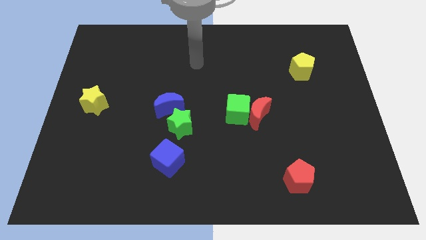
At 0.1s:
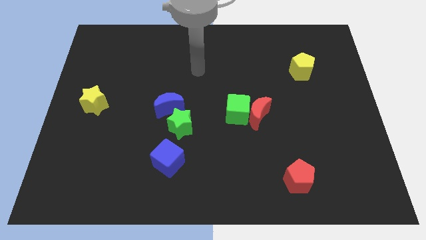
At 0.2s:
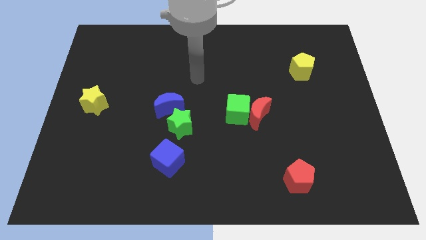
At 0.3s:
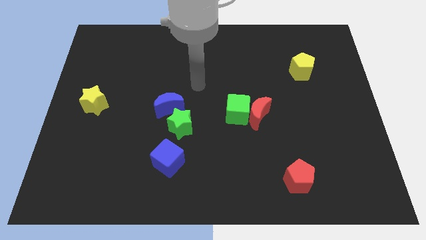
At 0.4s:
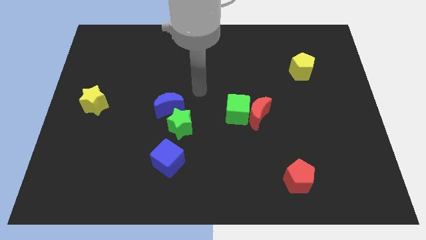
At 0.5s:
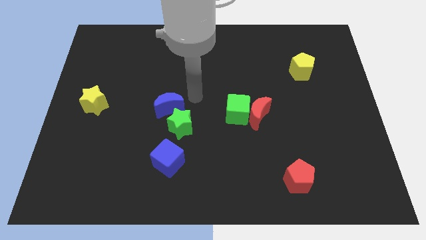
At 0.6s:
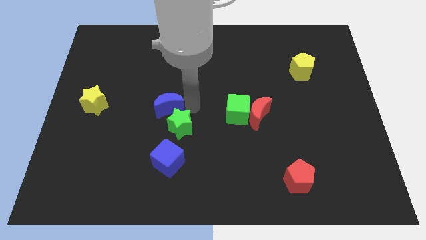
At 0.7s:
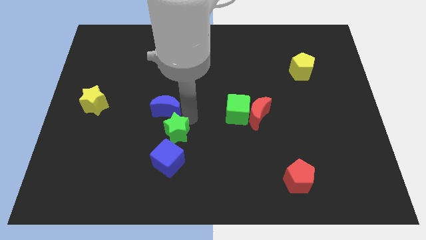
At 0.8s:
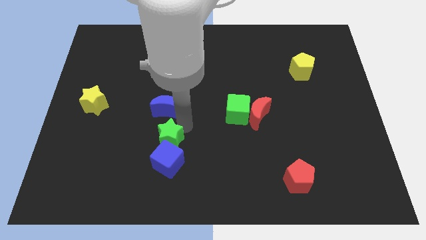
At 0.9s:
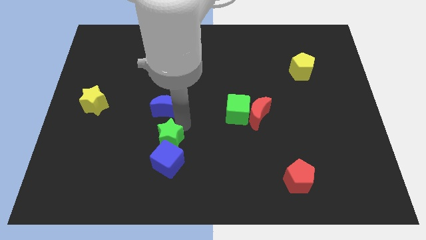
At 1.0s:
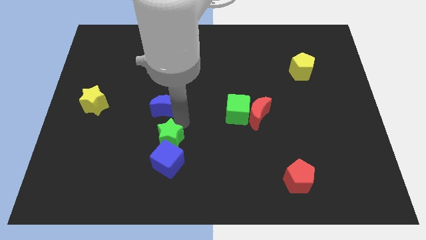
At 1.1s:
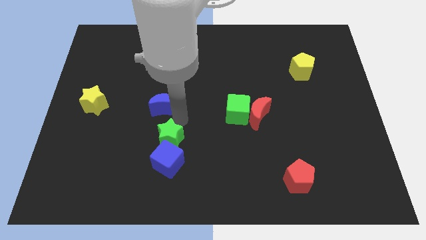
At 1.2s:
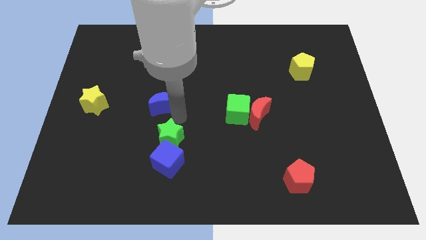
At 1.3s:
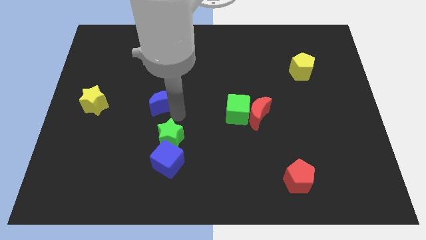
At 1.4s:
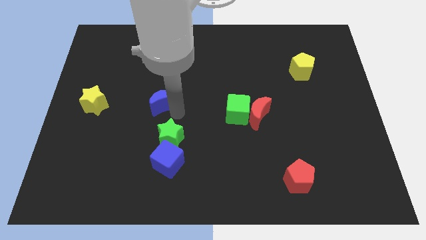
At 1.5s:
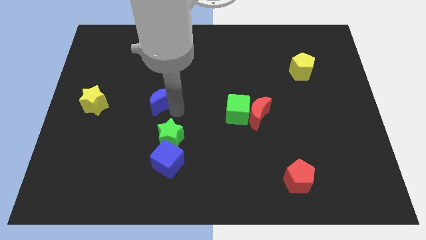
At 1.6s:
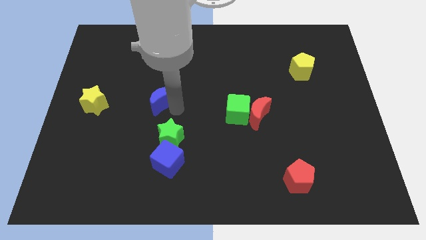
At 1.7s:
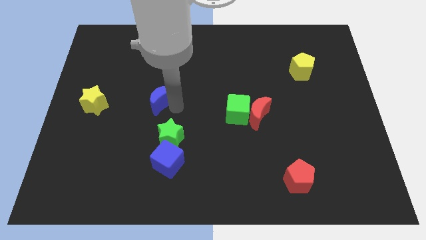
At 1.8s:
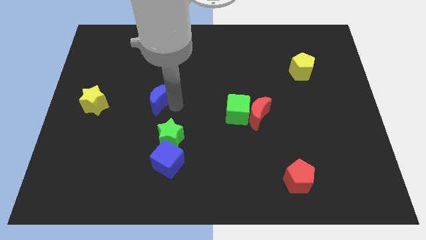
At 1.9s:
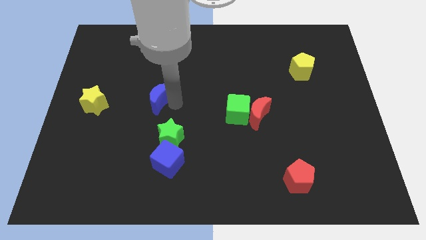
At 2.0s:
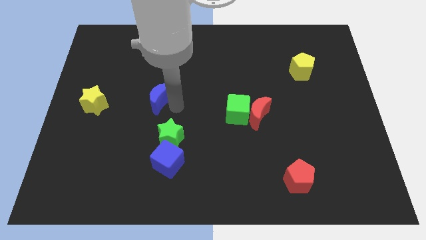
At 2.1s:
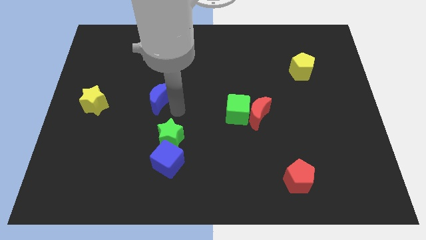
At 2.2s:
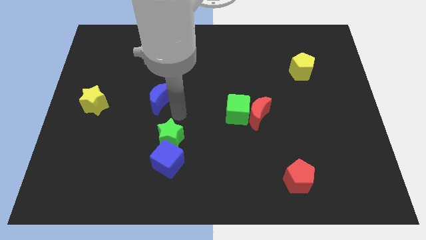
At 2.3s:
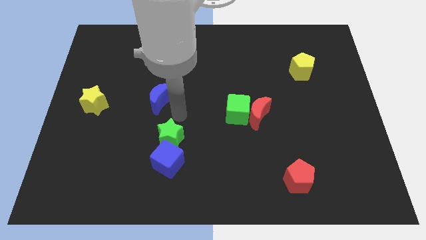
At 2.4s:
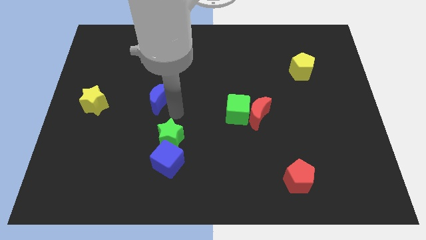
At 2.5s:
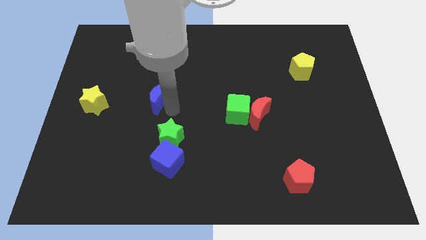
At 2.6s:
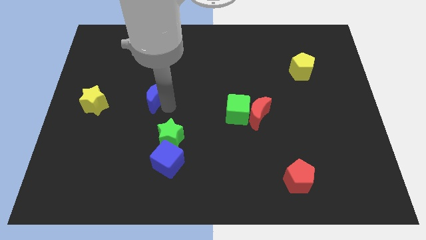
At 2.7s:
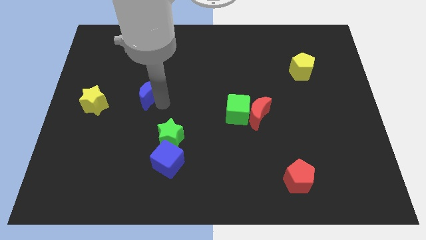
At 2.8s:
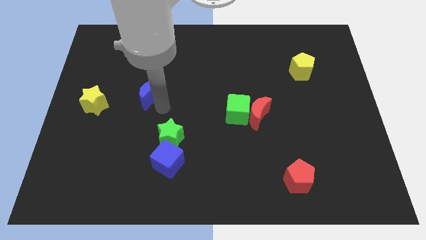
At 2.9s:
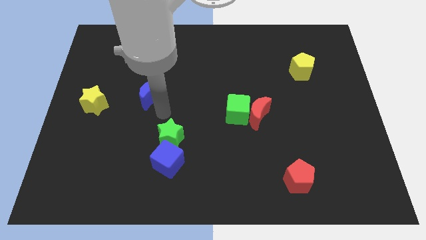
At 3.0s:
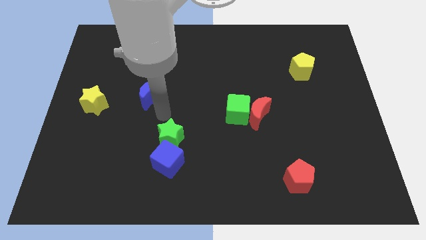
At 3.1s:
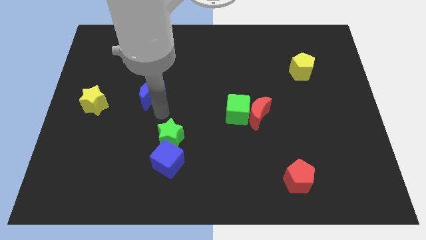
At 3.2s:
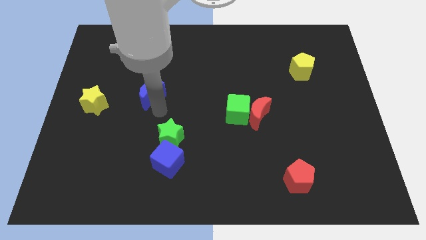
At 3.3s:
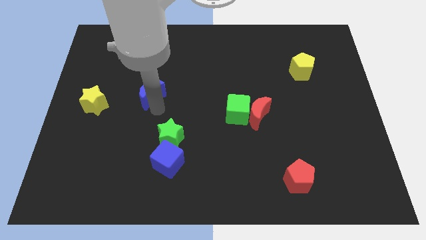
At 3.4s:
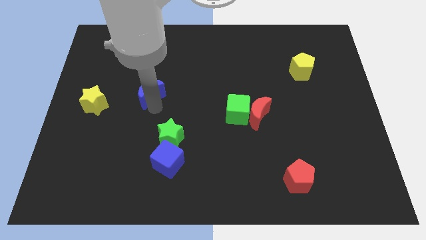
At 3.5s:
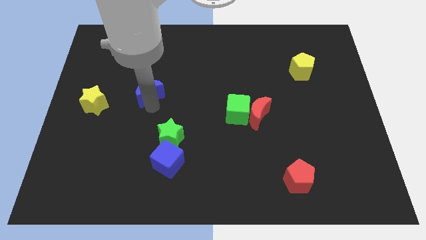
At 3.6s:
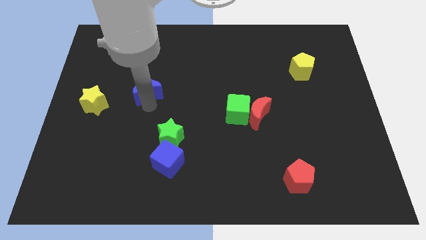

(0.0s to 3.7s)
push the blue moon up and left diagonally somewhat

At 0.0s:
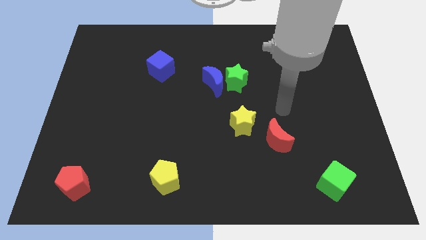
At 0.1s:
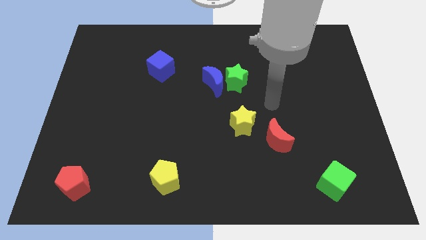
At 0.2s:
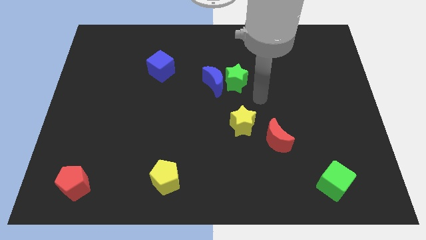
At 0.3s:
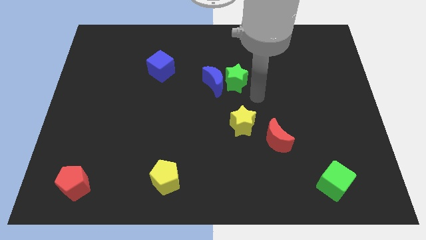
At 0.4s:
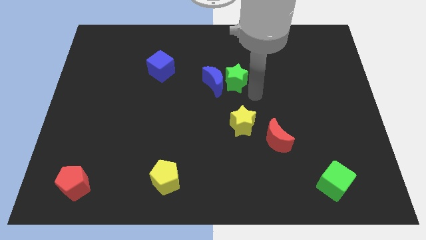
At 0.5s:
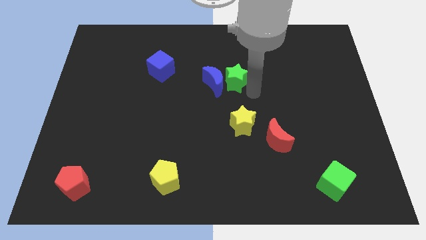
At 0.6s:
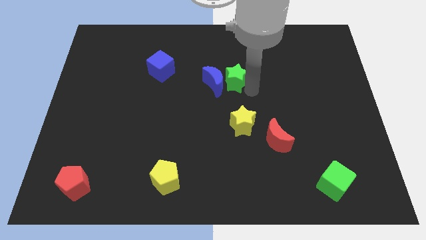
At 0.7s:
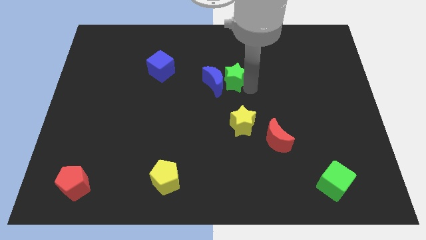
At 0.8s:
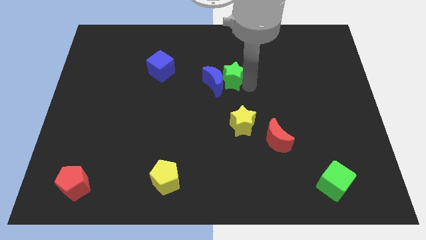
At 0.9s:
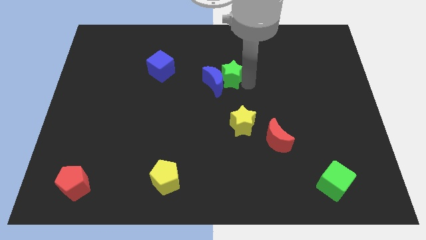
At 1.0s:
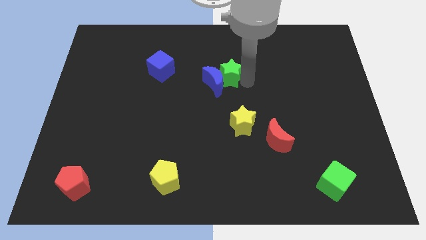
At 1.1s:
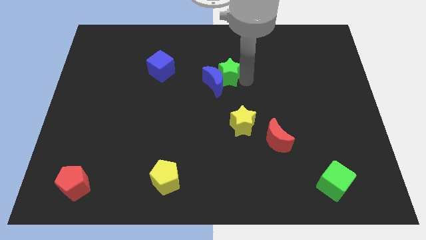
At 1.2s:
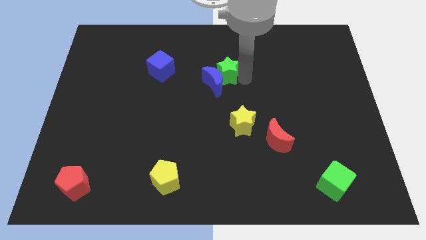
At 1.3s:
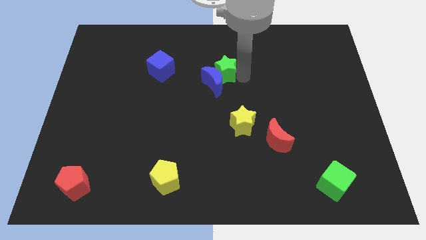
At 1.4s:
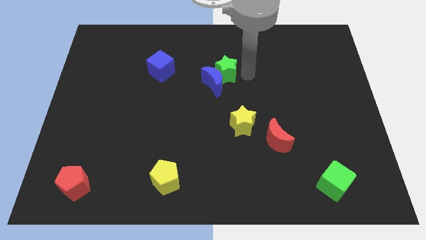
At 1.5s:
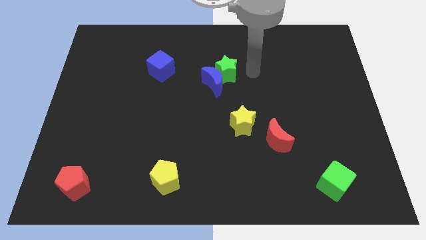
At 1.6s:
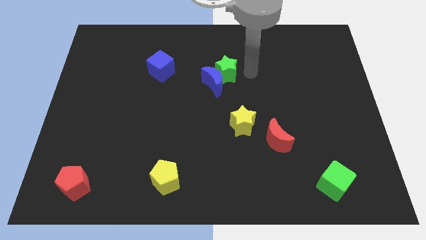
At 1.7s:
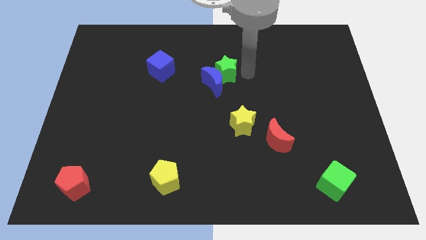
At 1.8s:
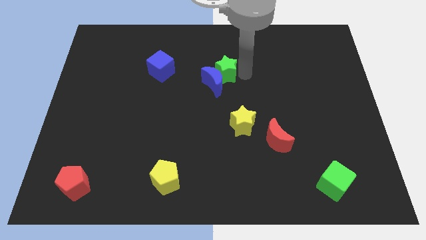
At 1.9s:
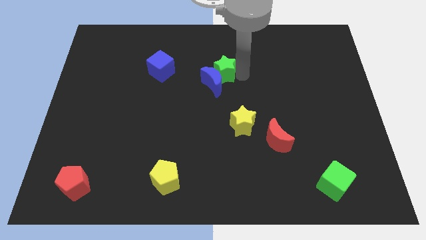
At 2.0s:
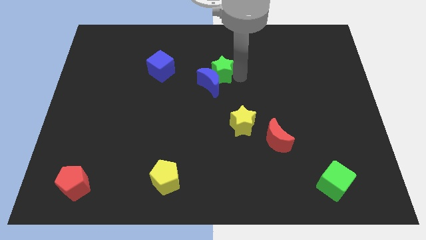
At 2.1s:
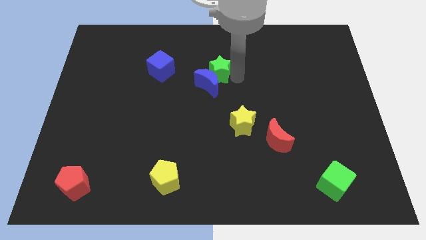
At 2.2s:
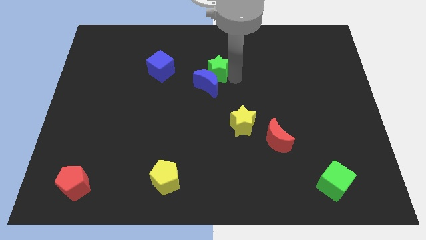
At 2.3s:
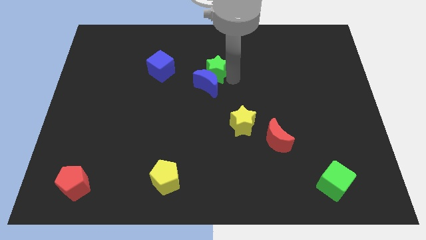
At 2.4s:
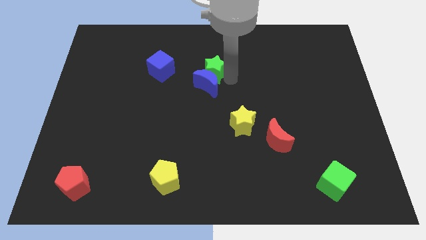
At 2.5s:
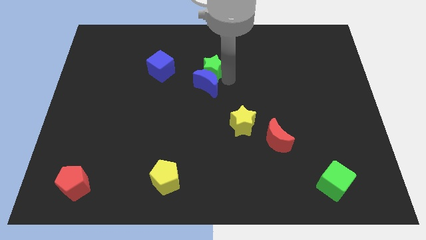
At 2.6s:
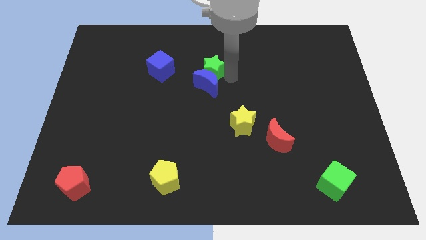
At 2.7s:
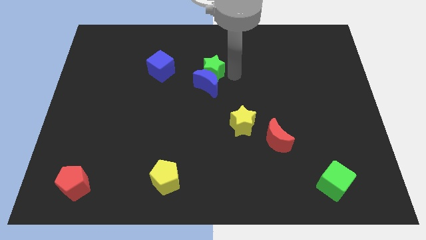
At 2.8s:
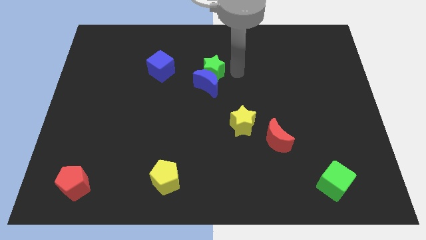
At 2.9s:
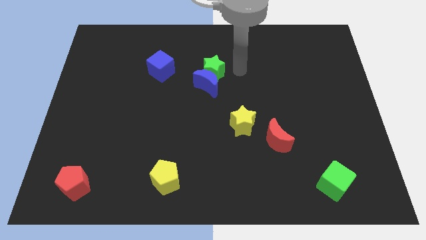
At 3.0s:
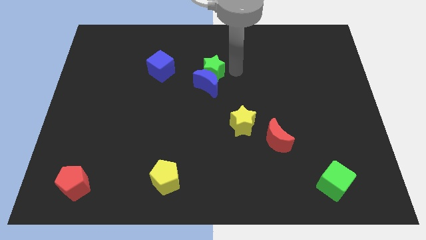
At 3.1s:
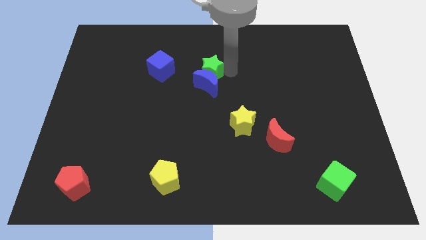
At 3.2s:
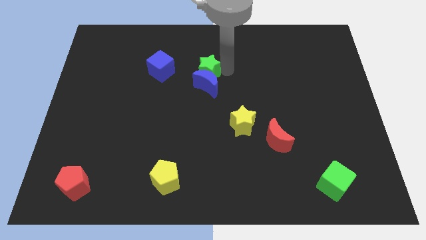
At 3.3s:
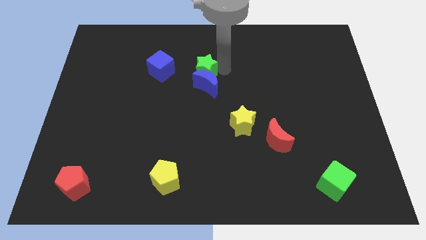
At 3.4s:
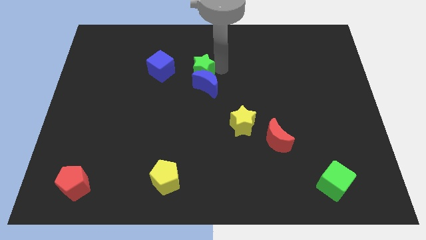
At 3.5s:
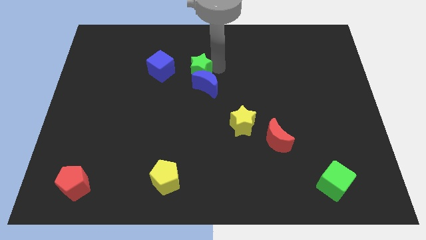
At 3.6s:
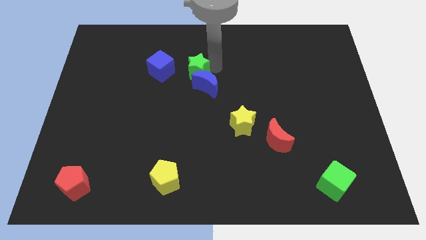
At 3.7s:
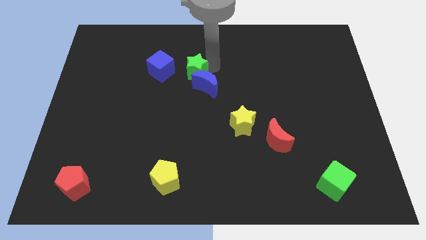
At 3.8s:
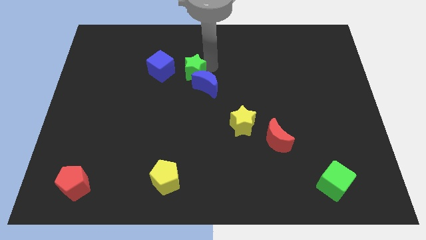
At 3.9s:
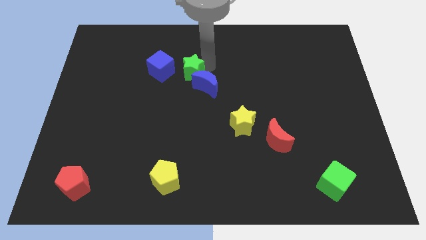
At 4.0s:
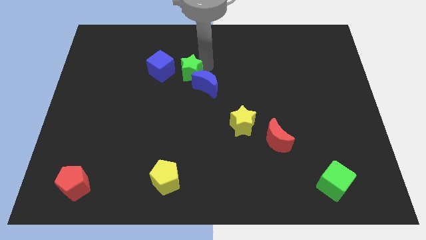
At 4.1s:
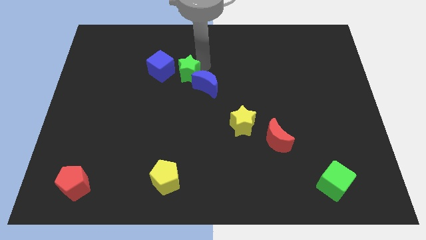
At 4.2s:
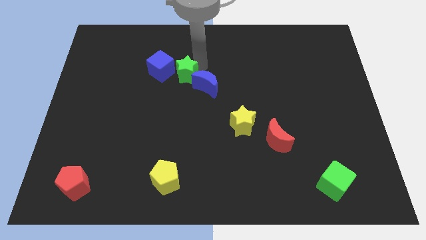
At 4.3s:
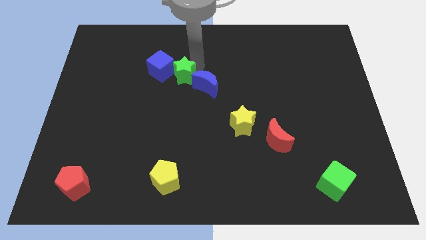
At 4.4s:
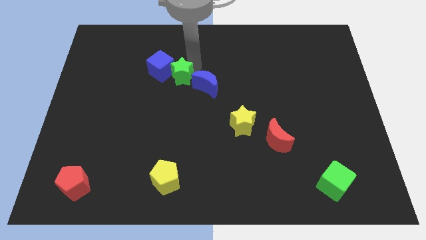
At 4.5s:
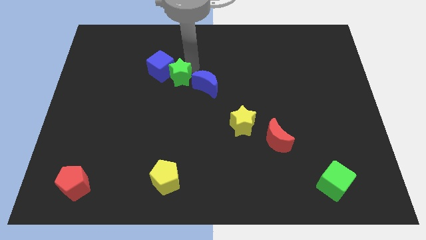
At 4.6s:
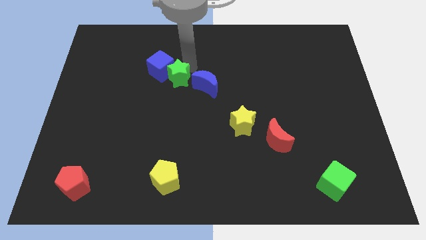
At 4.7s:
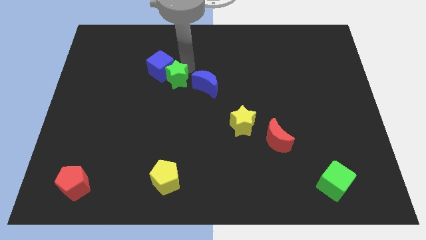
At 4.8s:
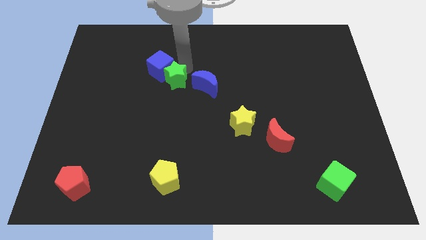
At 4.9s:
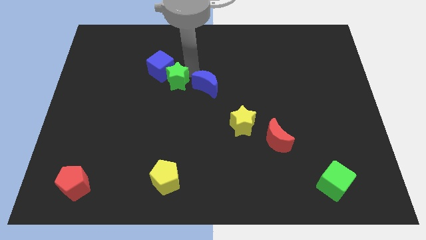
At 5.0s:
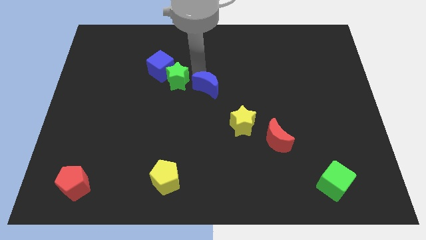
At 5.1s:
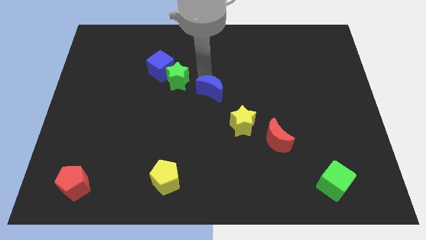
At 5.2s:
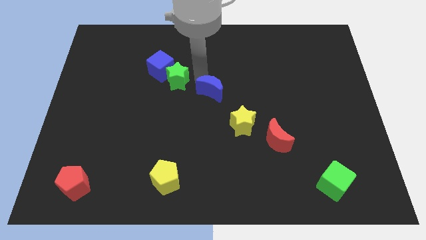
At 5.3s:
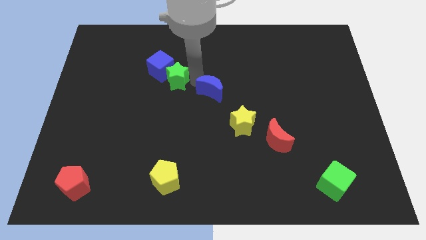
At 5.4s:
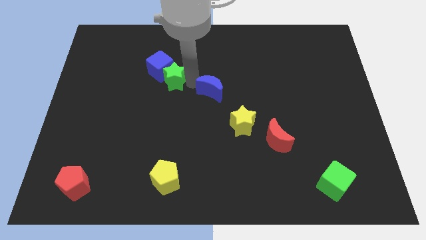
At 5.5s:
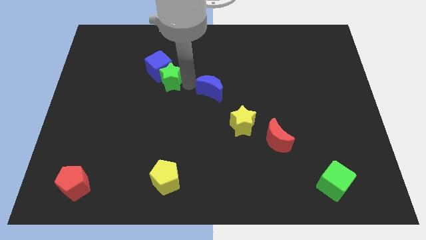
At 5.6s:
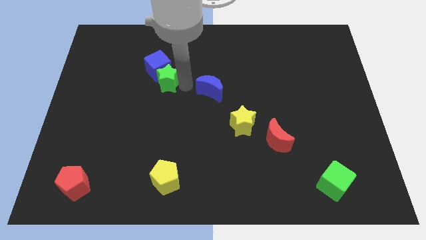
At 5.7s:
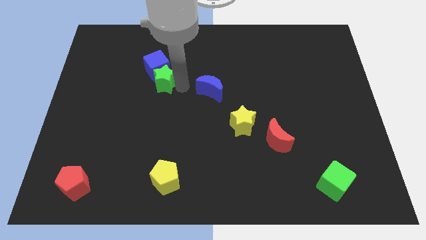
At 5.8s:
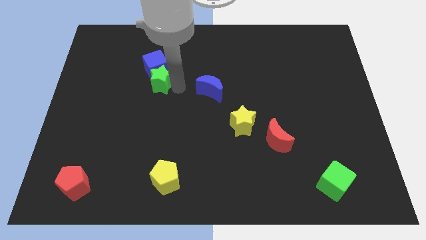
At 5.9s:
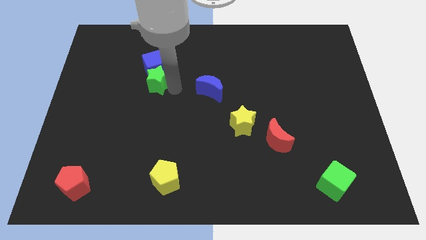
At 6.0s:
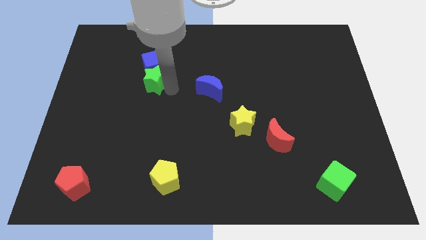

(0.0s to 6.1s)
push the green star to the left
